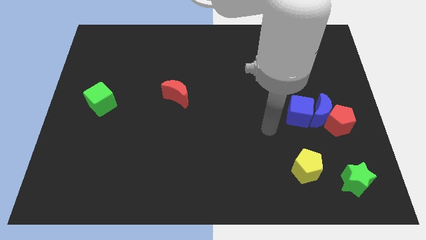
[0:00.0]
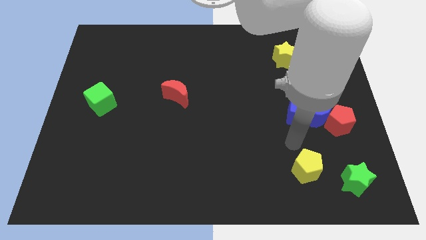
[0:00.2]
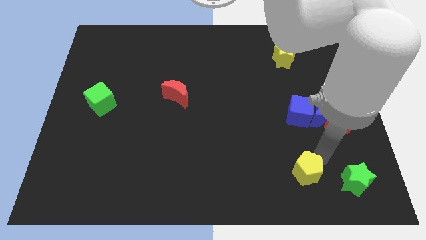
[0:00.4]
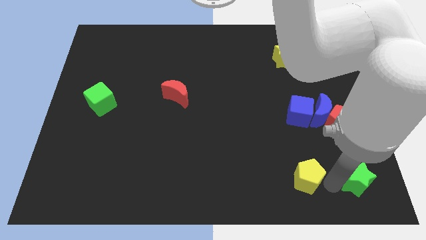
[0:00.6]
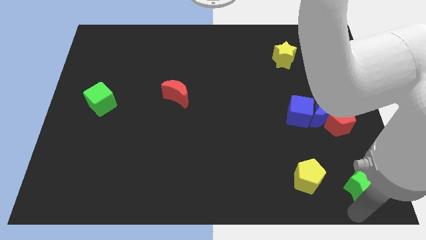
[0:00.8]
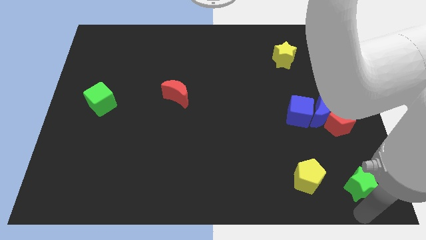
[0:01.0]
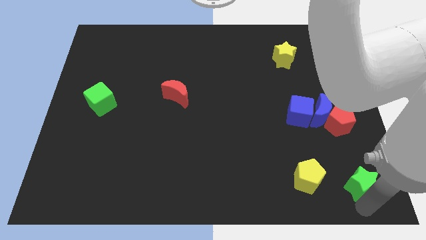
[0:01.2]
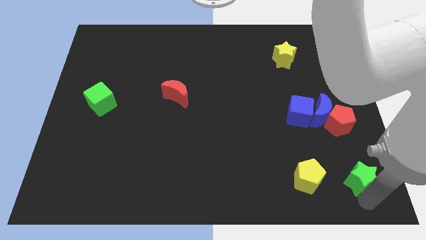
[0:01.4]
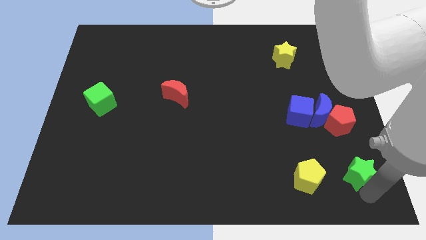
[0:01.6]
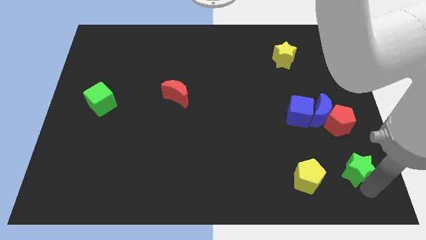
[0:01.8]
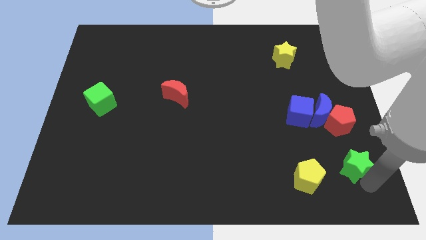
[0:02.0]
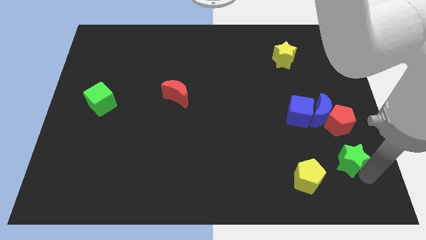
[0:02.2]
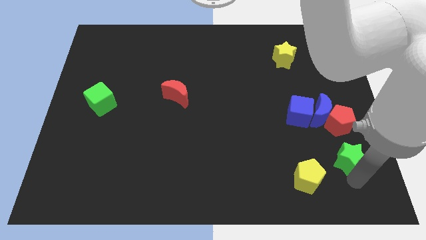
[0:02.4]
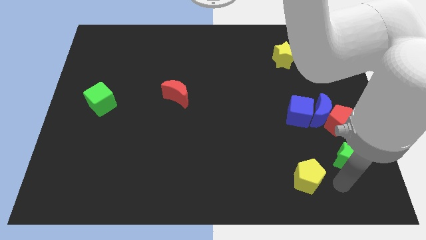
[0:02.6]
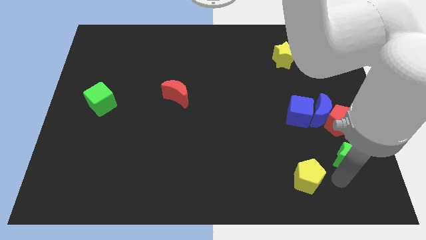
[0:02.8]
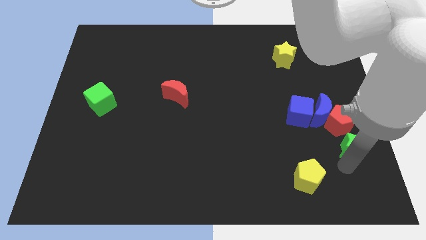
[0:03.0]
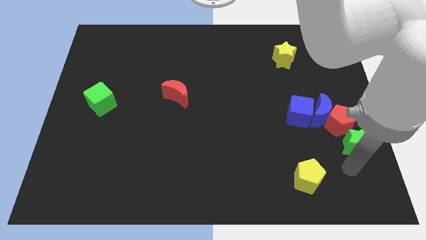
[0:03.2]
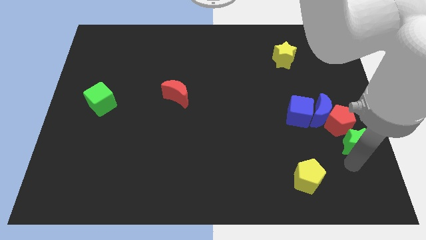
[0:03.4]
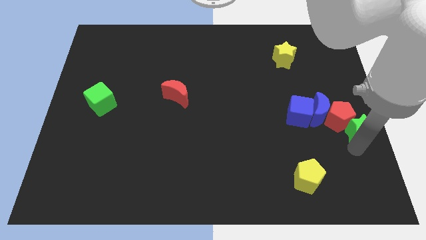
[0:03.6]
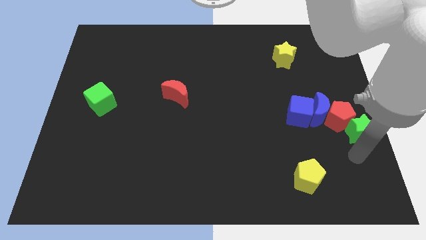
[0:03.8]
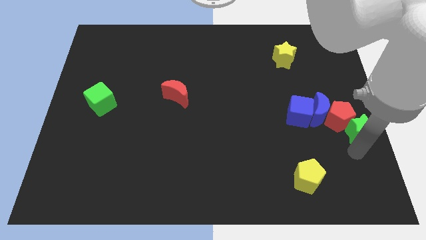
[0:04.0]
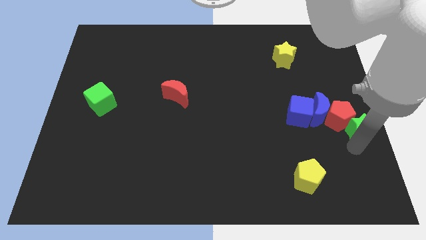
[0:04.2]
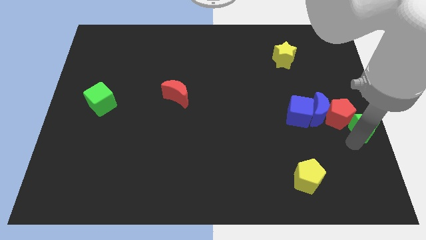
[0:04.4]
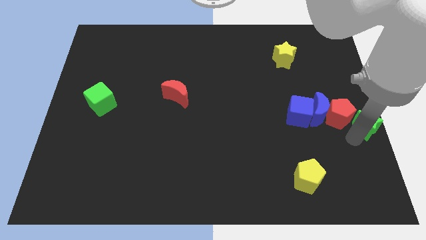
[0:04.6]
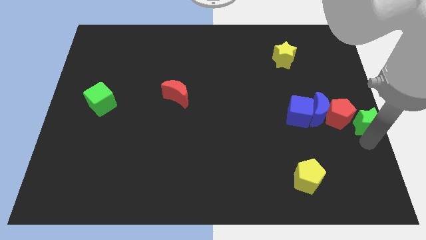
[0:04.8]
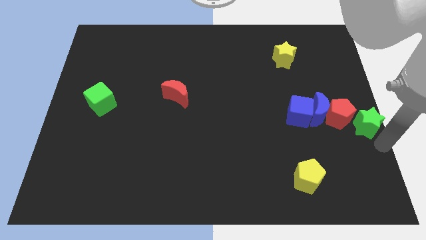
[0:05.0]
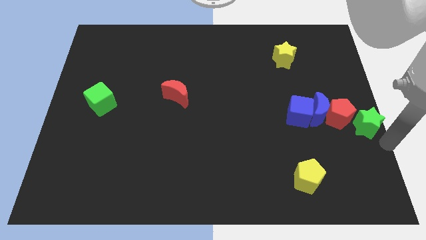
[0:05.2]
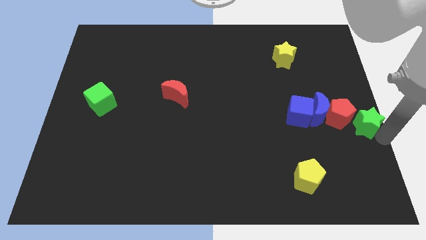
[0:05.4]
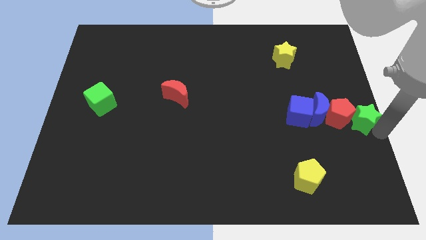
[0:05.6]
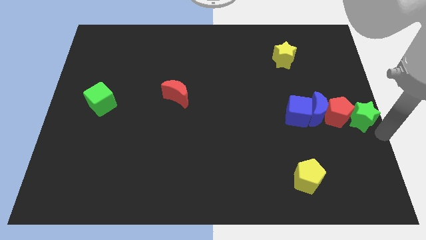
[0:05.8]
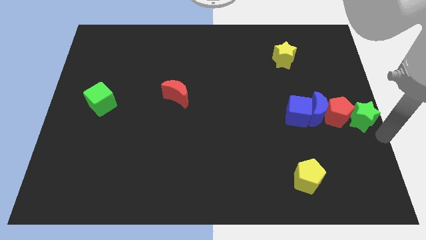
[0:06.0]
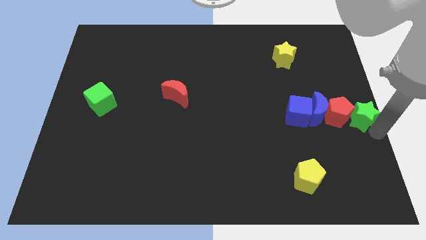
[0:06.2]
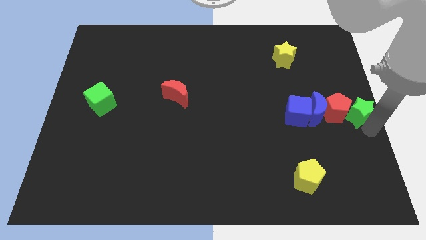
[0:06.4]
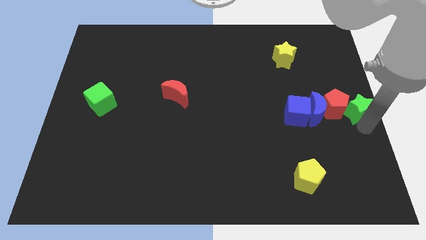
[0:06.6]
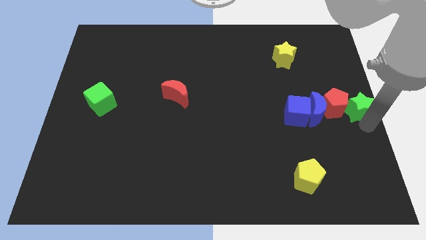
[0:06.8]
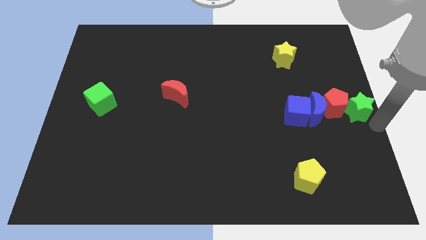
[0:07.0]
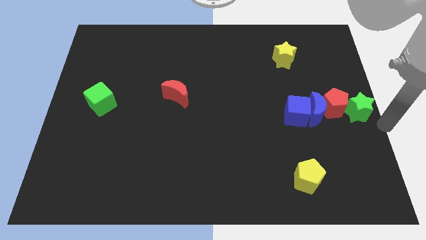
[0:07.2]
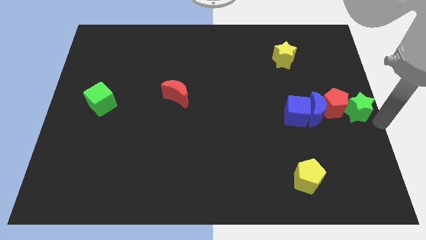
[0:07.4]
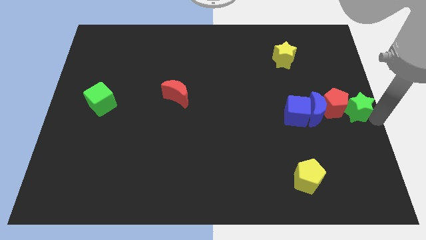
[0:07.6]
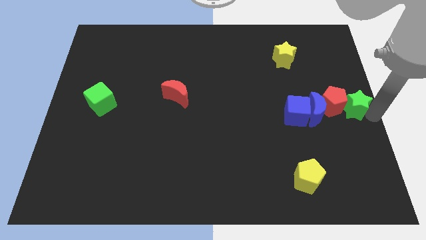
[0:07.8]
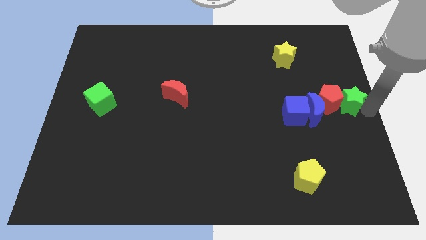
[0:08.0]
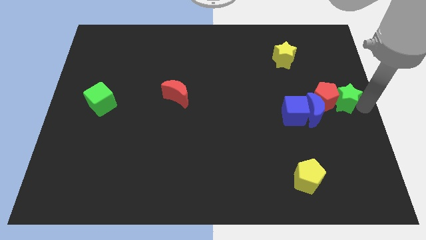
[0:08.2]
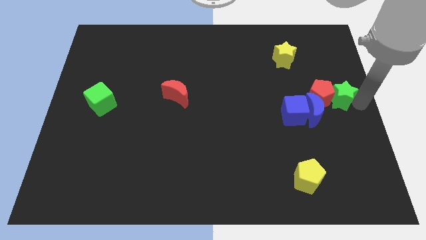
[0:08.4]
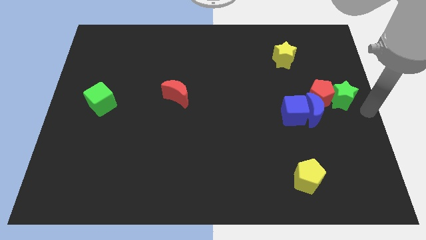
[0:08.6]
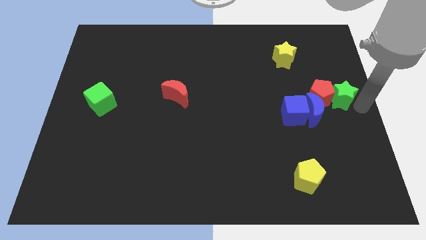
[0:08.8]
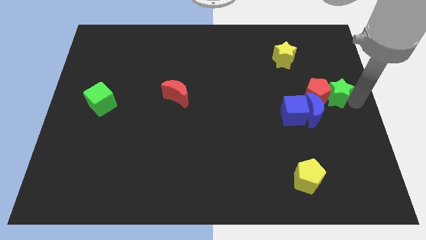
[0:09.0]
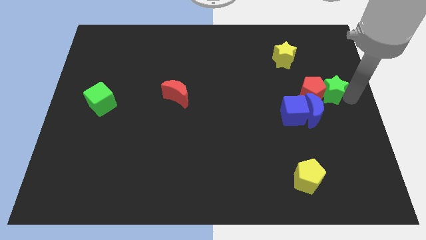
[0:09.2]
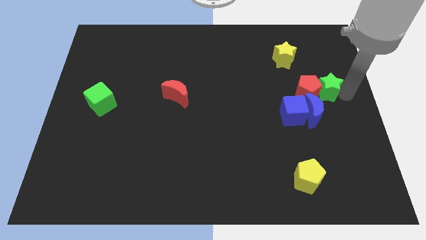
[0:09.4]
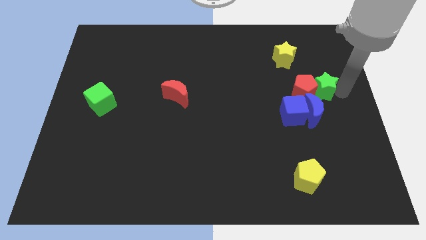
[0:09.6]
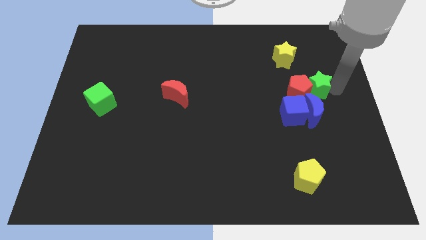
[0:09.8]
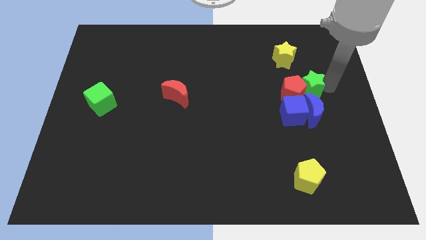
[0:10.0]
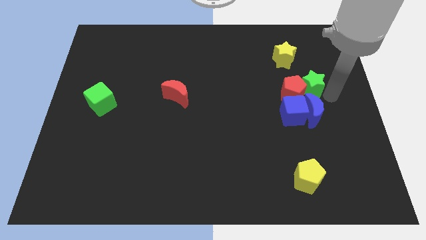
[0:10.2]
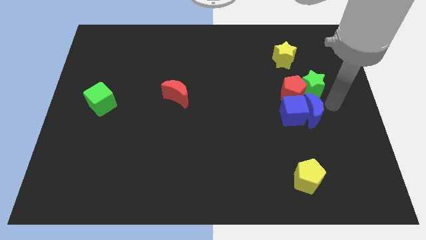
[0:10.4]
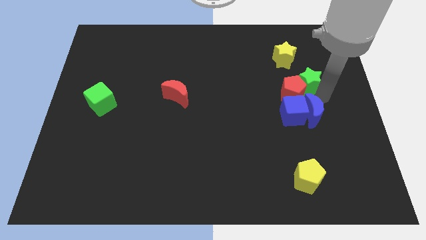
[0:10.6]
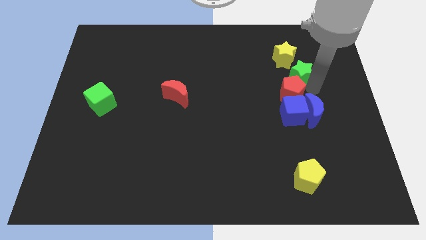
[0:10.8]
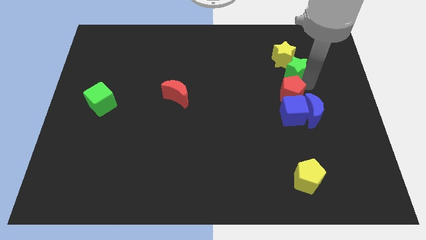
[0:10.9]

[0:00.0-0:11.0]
push the green star towards the yellow star

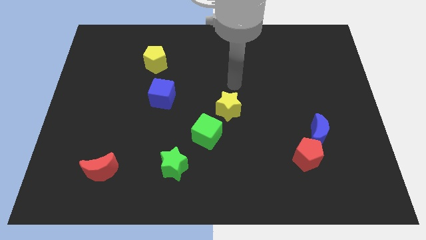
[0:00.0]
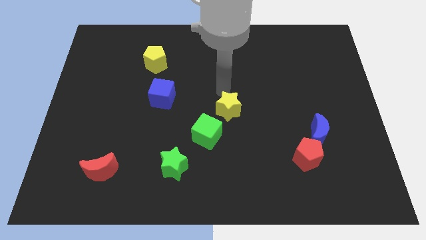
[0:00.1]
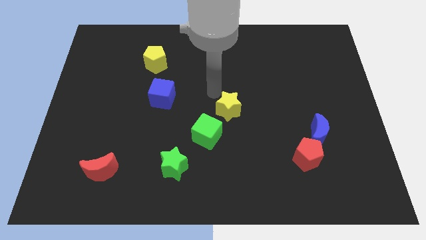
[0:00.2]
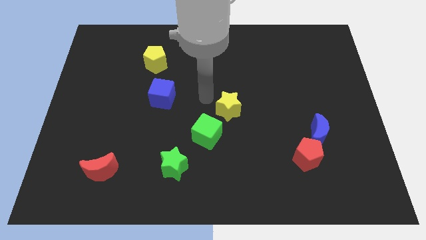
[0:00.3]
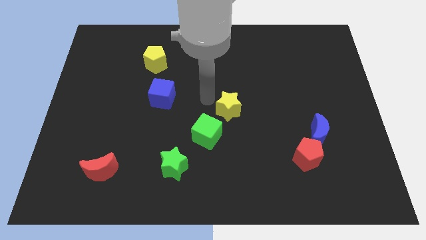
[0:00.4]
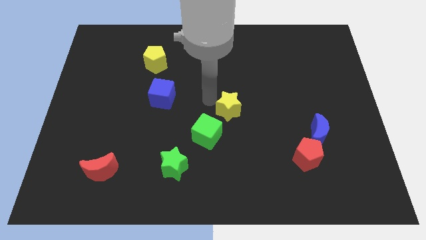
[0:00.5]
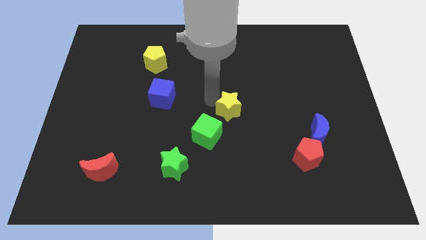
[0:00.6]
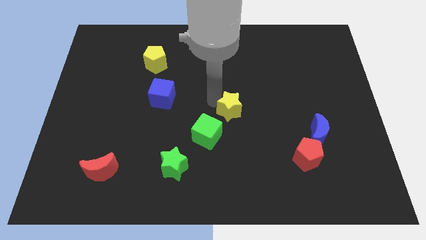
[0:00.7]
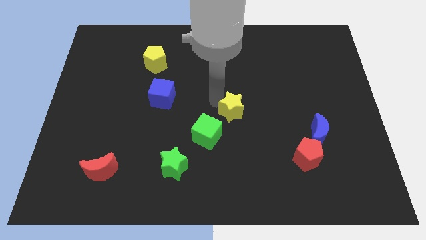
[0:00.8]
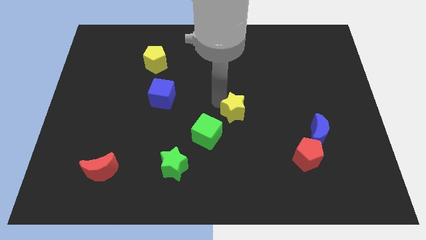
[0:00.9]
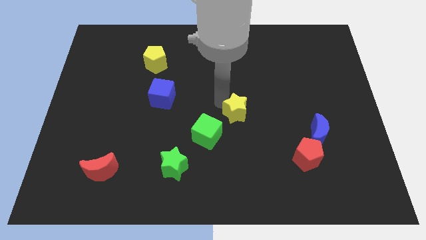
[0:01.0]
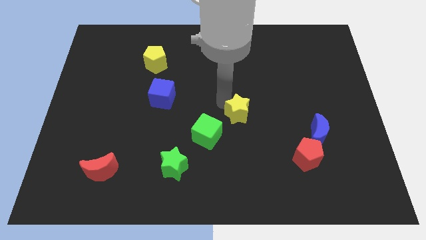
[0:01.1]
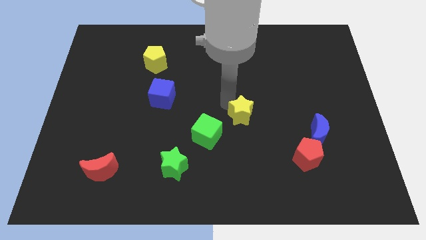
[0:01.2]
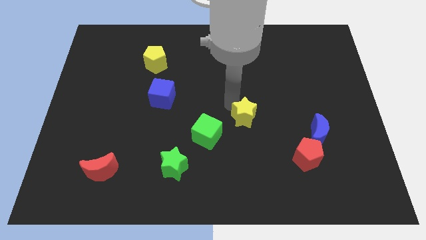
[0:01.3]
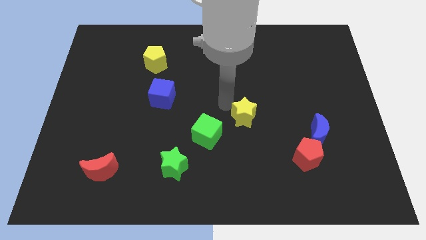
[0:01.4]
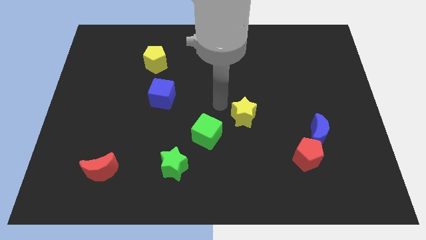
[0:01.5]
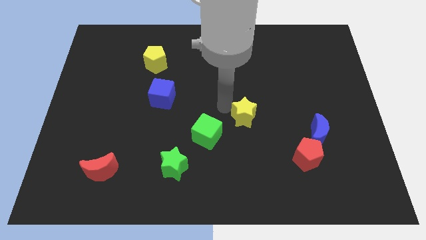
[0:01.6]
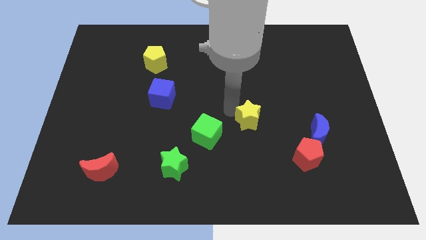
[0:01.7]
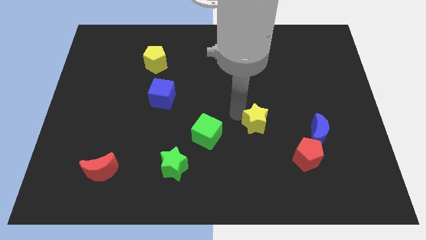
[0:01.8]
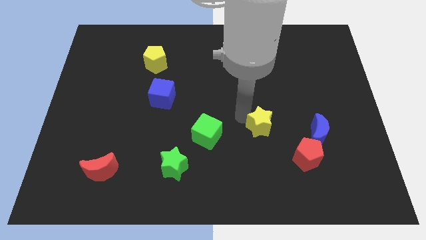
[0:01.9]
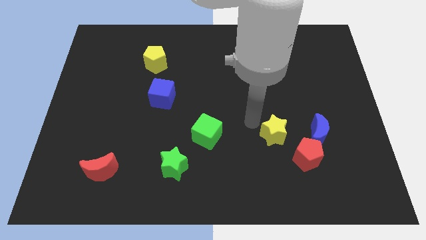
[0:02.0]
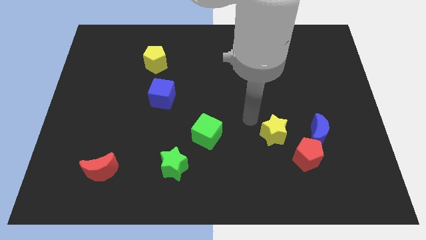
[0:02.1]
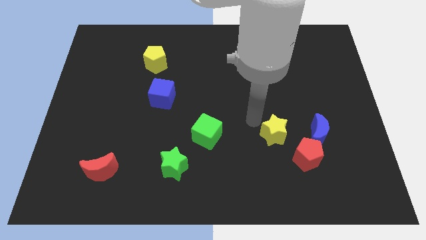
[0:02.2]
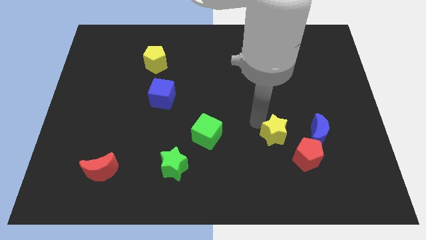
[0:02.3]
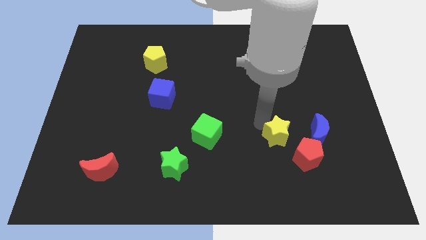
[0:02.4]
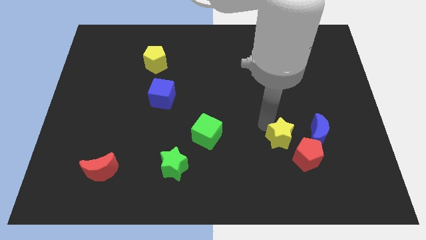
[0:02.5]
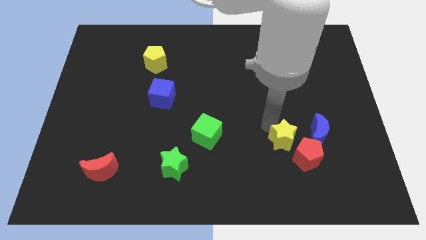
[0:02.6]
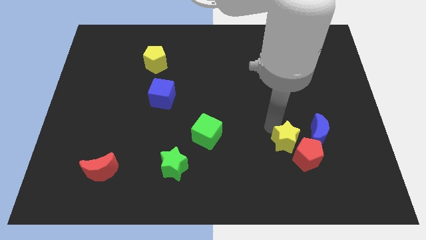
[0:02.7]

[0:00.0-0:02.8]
push the yellow star to the red pentagon
